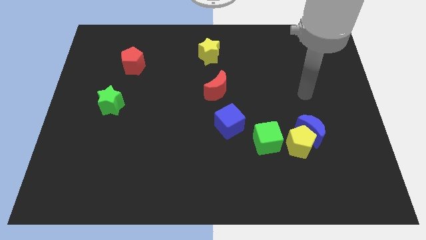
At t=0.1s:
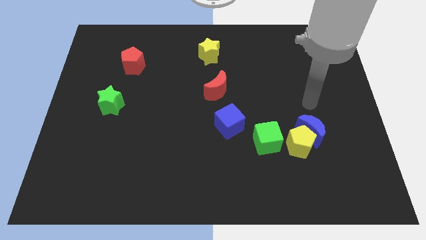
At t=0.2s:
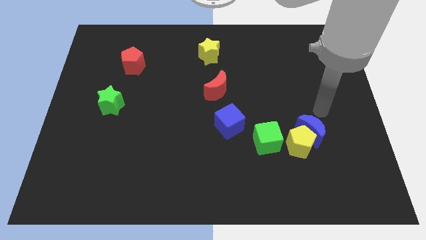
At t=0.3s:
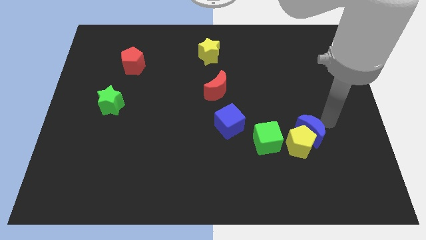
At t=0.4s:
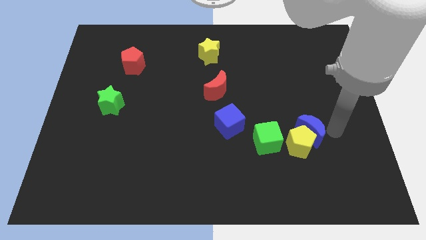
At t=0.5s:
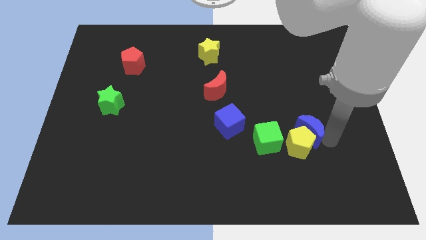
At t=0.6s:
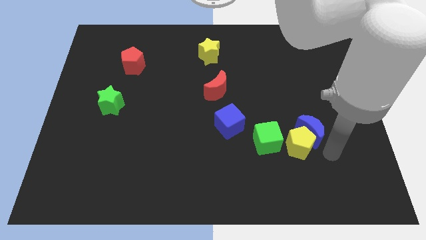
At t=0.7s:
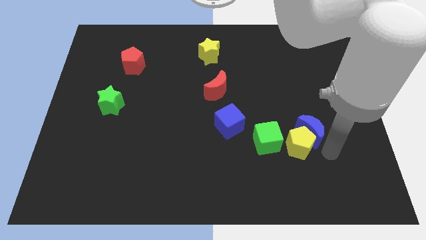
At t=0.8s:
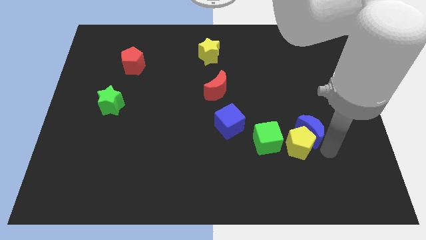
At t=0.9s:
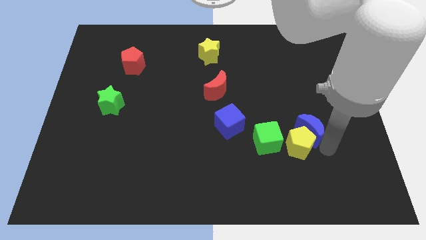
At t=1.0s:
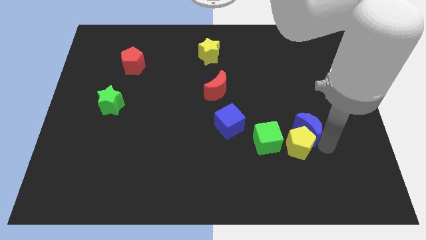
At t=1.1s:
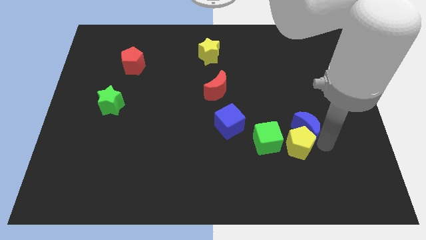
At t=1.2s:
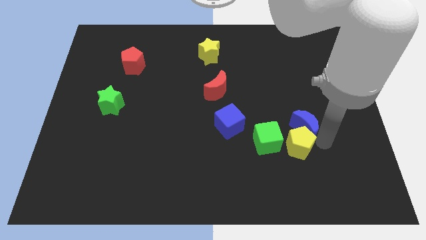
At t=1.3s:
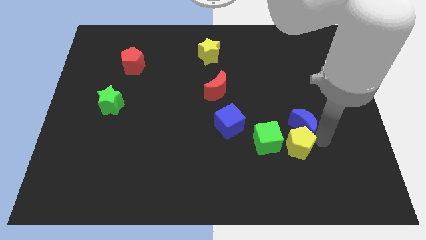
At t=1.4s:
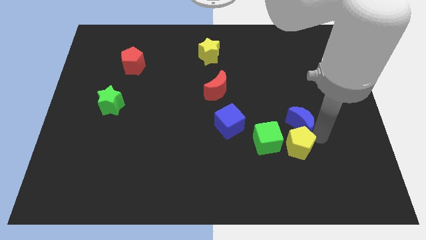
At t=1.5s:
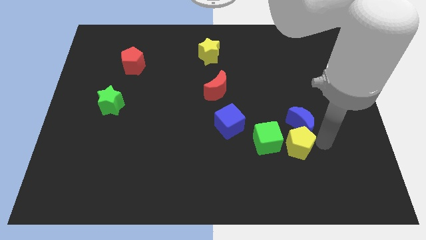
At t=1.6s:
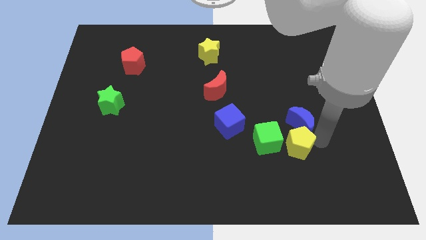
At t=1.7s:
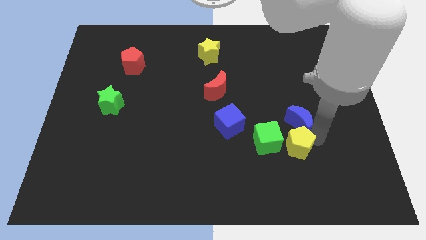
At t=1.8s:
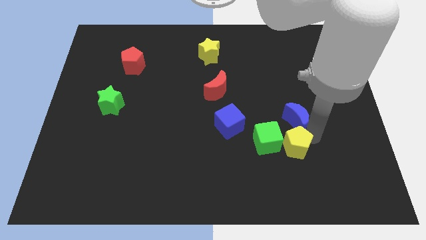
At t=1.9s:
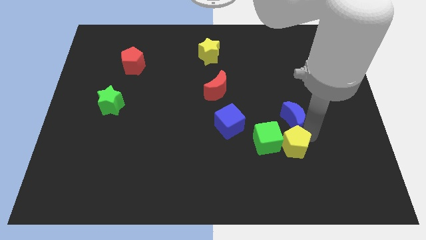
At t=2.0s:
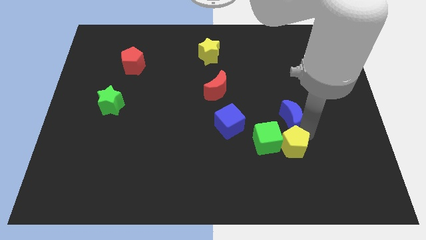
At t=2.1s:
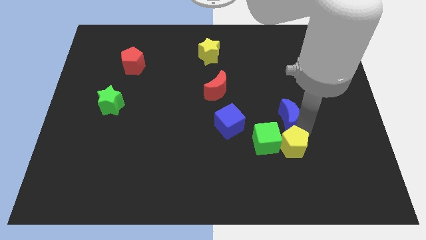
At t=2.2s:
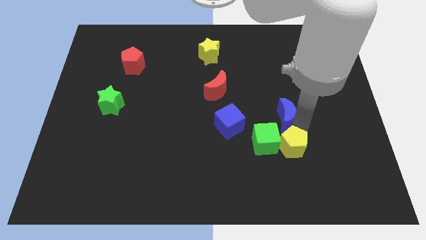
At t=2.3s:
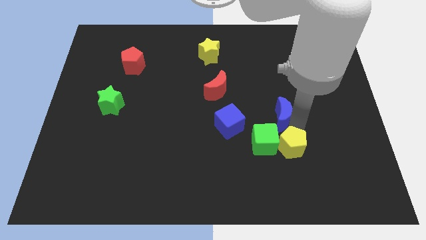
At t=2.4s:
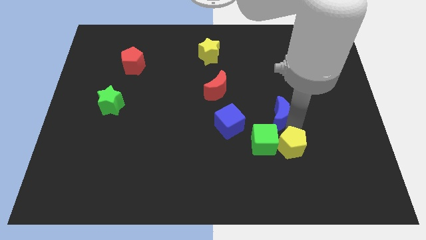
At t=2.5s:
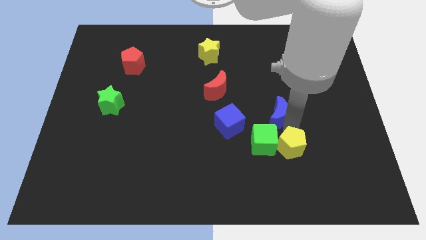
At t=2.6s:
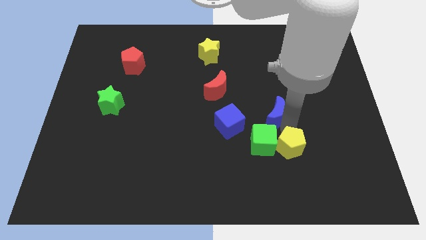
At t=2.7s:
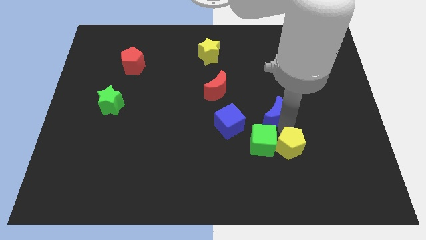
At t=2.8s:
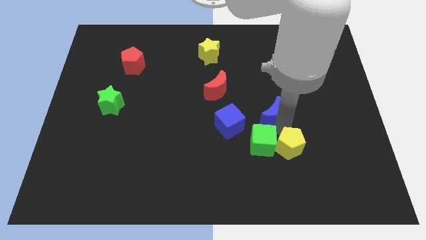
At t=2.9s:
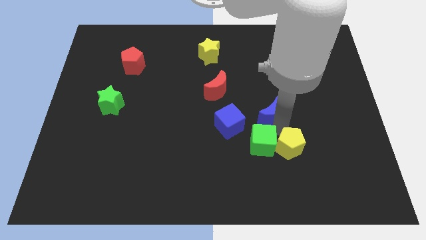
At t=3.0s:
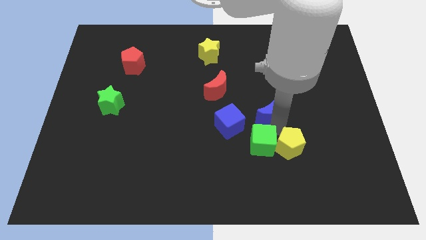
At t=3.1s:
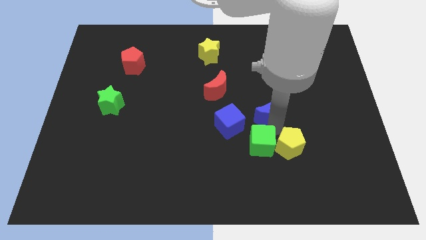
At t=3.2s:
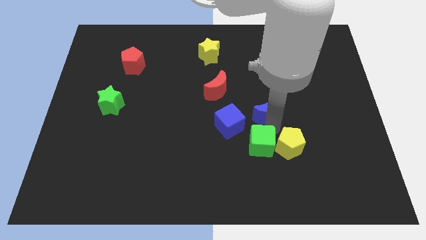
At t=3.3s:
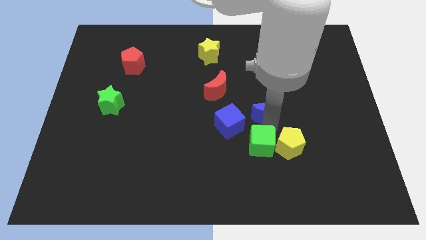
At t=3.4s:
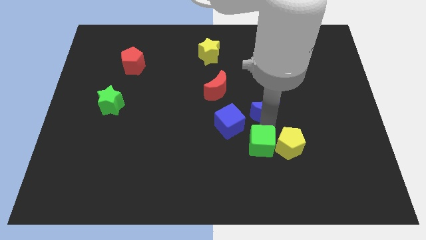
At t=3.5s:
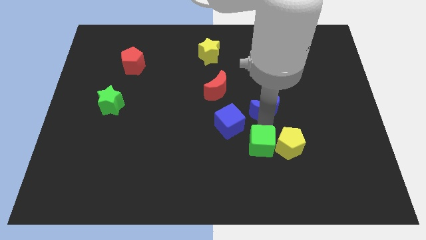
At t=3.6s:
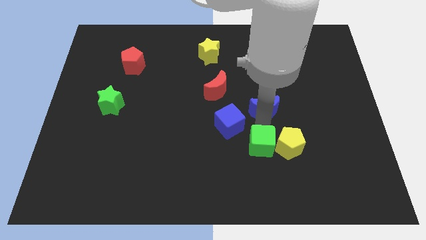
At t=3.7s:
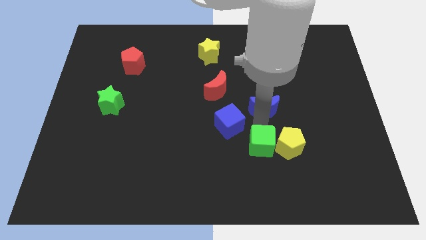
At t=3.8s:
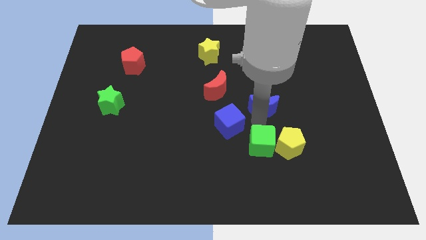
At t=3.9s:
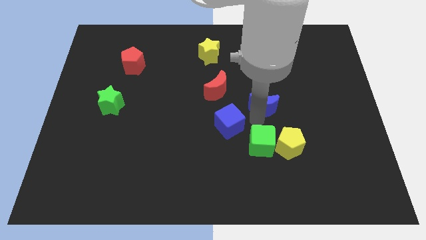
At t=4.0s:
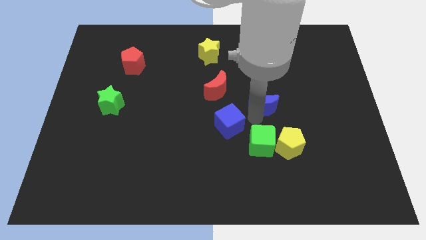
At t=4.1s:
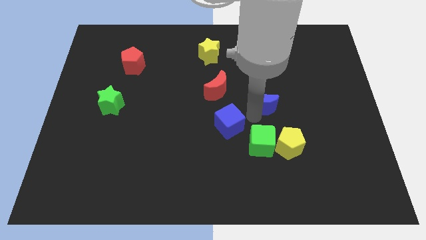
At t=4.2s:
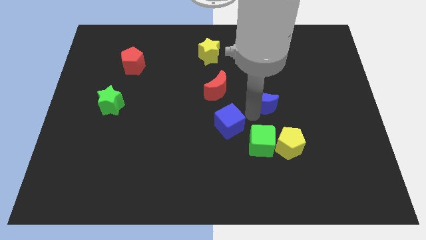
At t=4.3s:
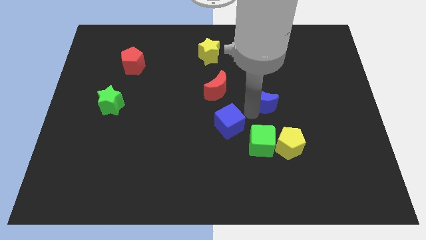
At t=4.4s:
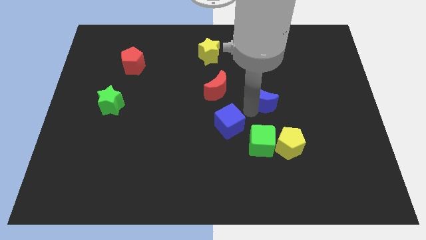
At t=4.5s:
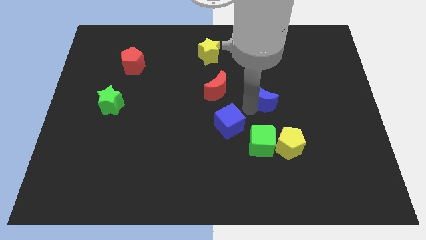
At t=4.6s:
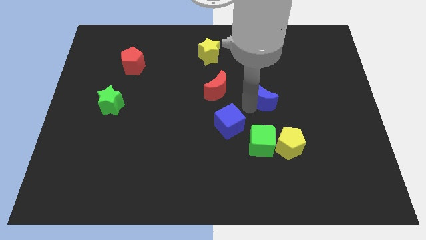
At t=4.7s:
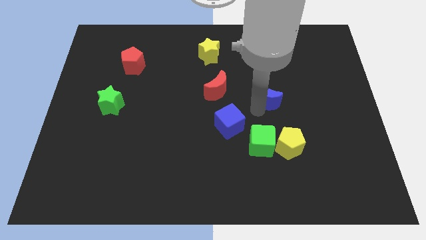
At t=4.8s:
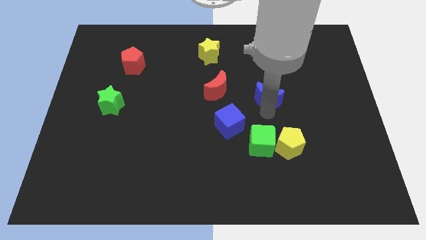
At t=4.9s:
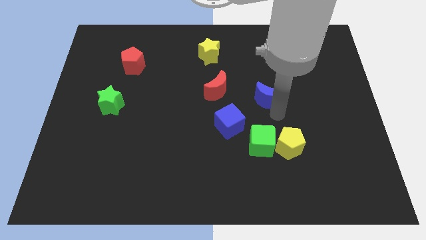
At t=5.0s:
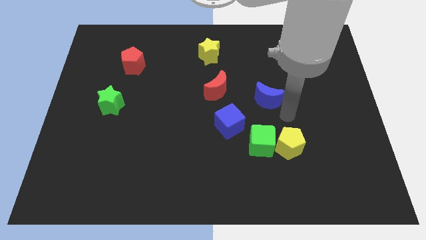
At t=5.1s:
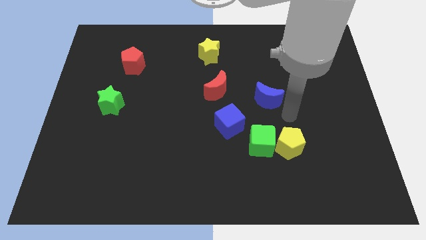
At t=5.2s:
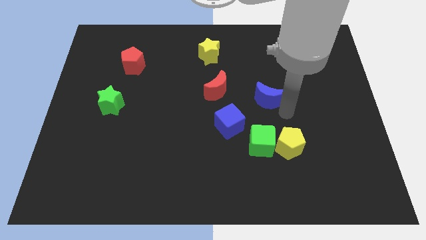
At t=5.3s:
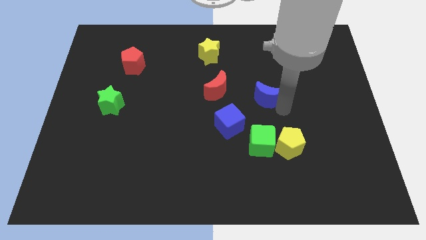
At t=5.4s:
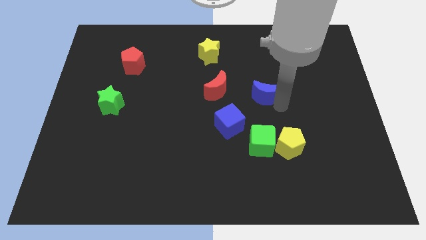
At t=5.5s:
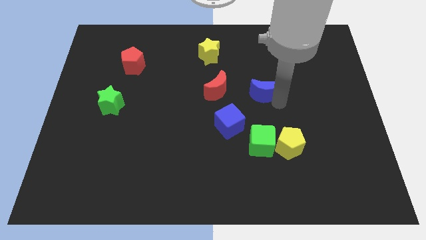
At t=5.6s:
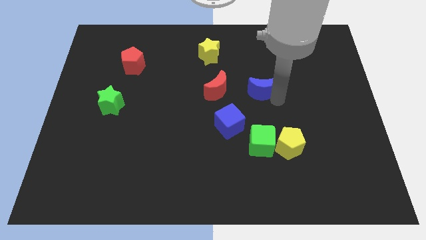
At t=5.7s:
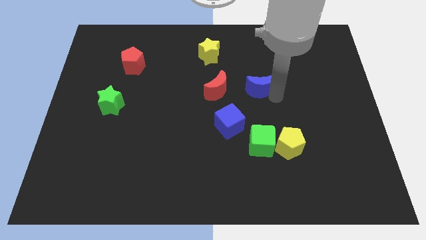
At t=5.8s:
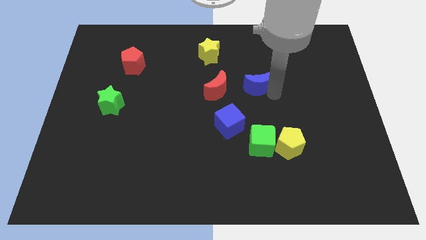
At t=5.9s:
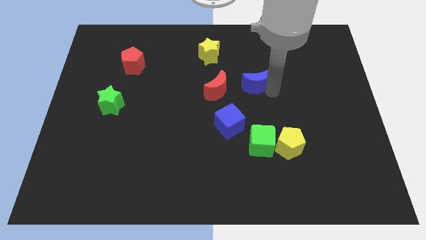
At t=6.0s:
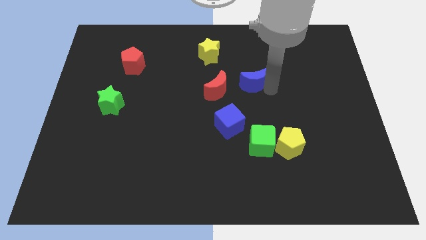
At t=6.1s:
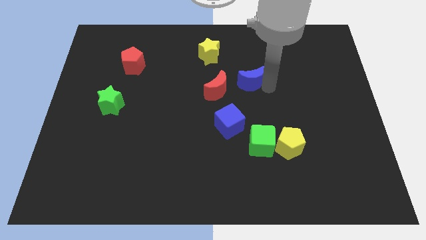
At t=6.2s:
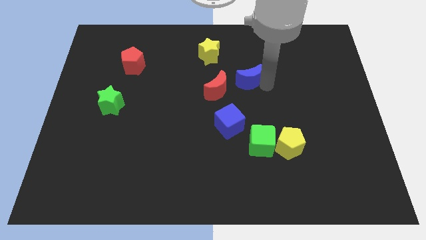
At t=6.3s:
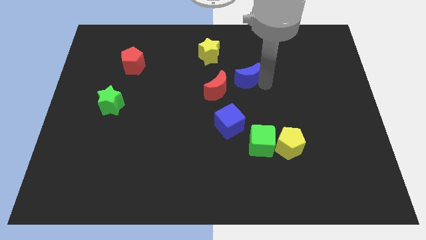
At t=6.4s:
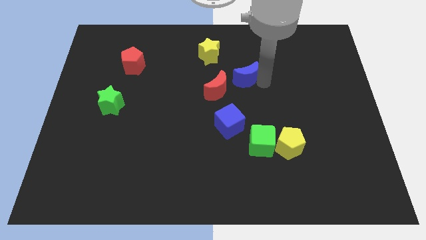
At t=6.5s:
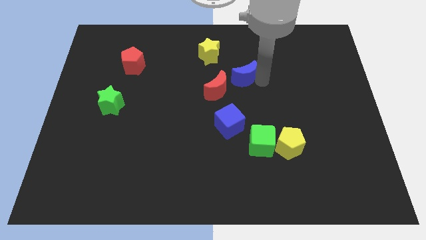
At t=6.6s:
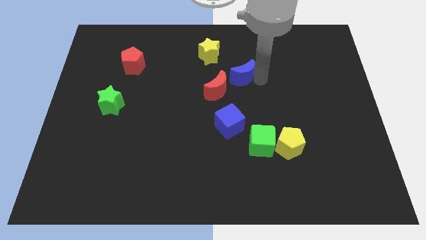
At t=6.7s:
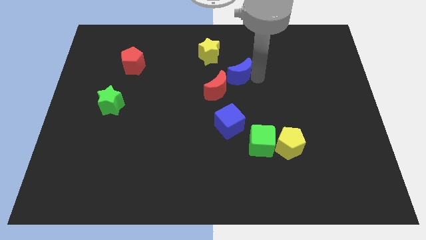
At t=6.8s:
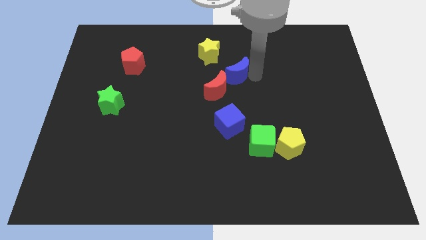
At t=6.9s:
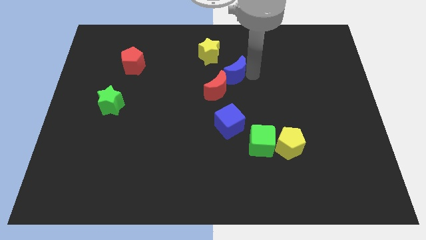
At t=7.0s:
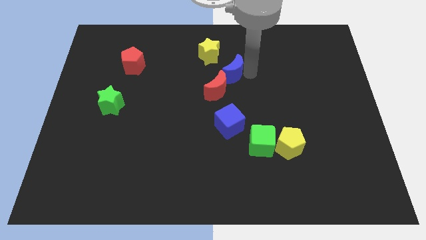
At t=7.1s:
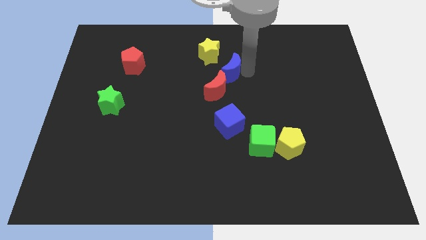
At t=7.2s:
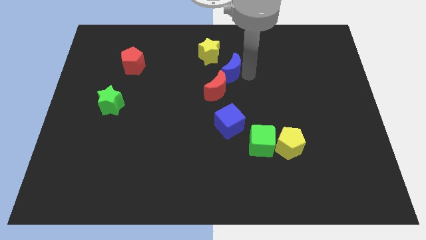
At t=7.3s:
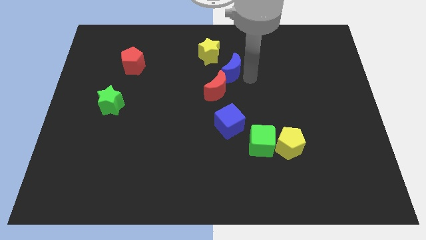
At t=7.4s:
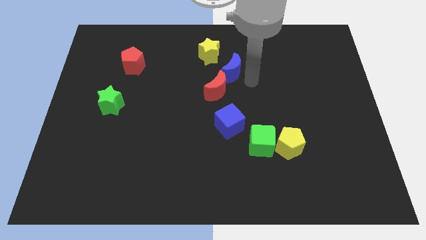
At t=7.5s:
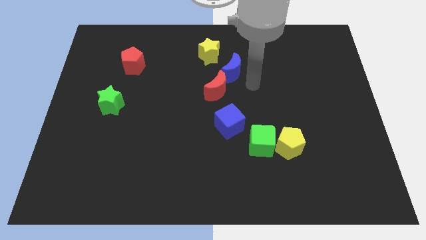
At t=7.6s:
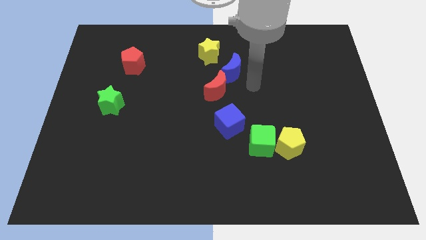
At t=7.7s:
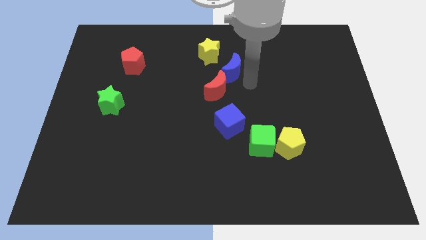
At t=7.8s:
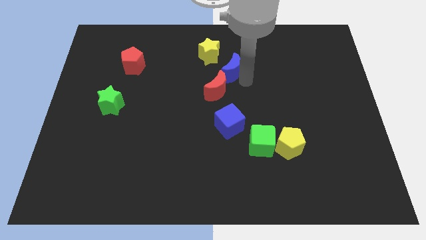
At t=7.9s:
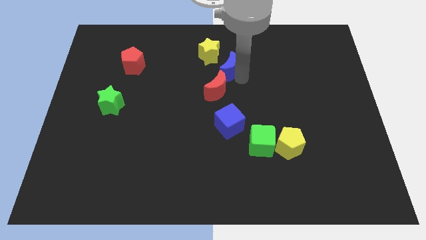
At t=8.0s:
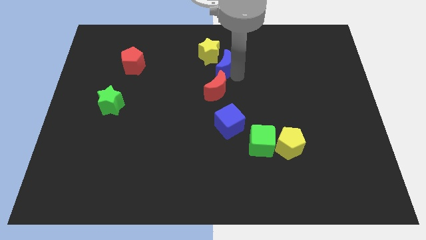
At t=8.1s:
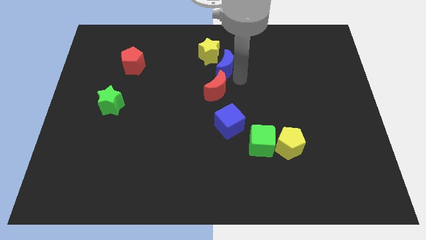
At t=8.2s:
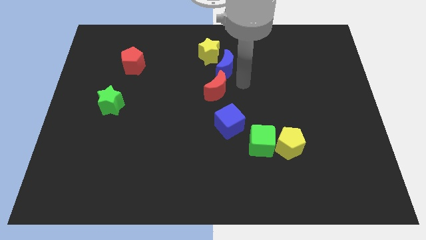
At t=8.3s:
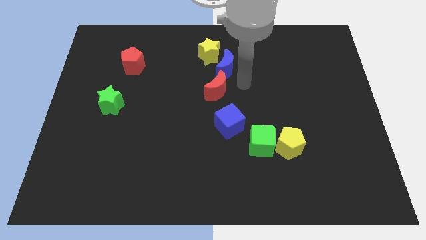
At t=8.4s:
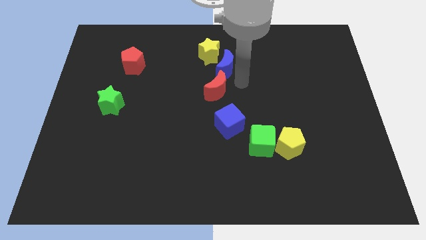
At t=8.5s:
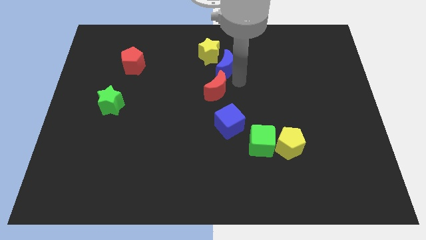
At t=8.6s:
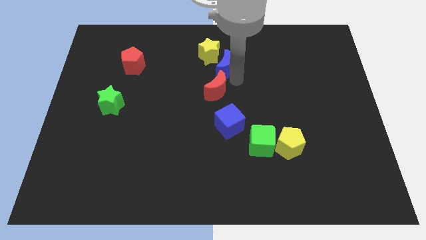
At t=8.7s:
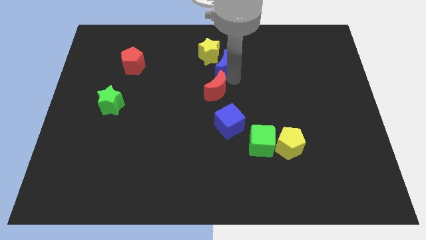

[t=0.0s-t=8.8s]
slide the blue moon close to the yellow star
